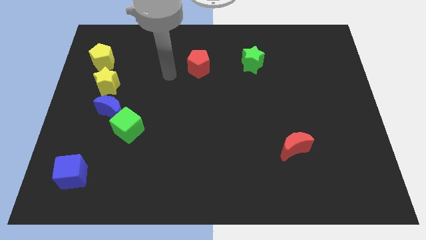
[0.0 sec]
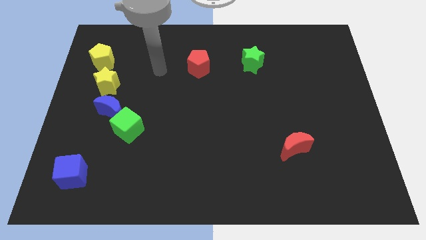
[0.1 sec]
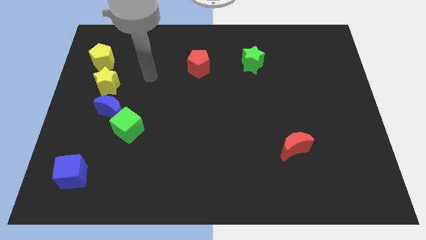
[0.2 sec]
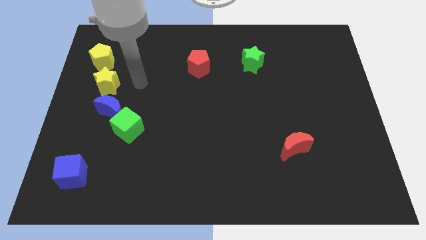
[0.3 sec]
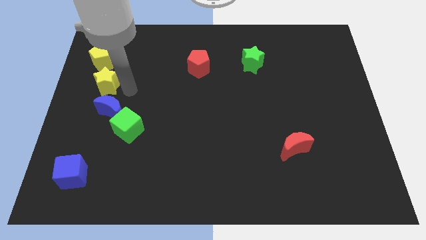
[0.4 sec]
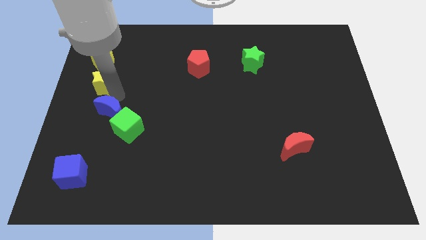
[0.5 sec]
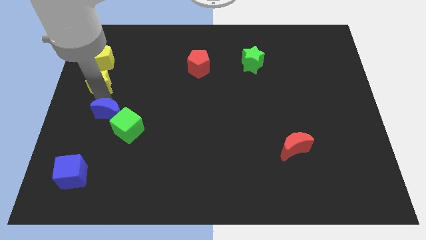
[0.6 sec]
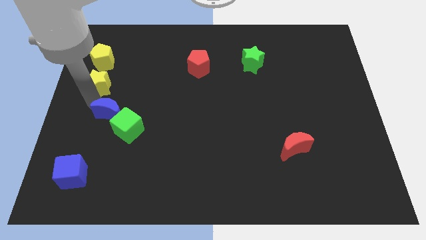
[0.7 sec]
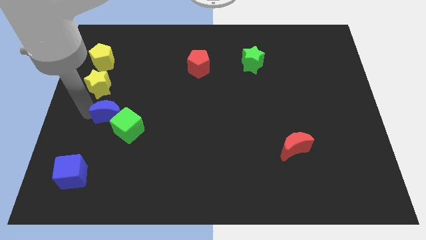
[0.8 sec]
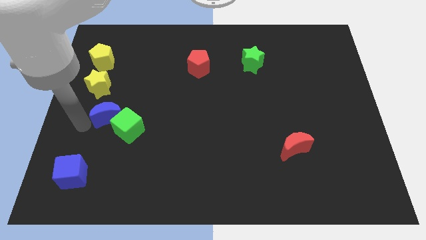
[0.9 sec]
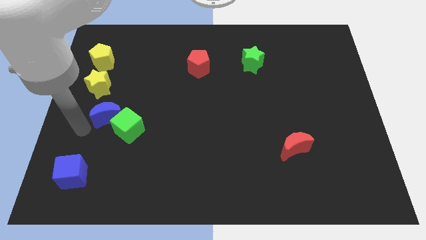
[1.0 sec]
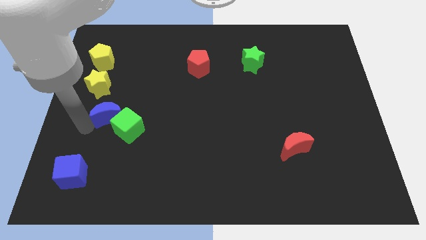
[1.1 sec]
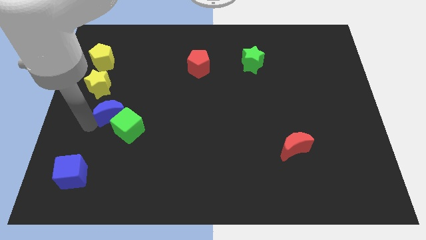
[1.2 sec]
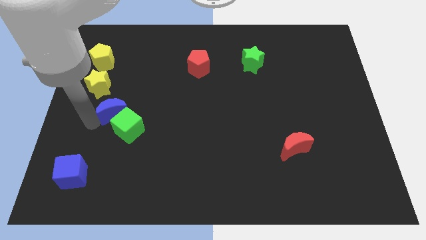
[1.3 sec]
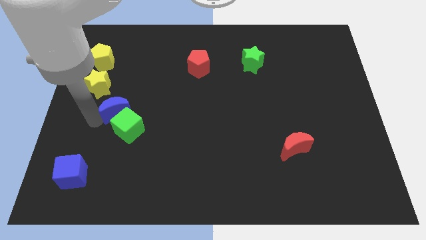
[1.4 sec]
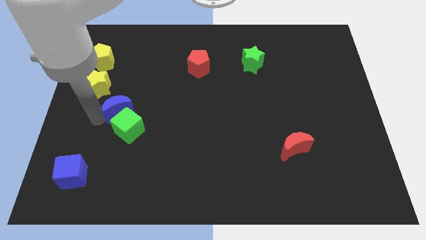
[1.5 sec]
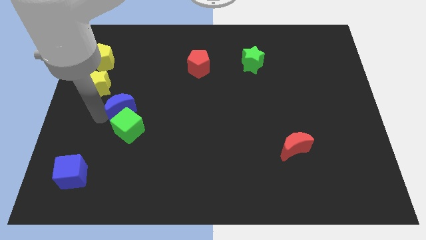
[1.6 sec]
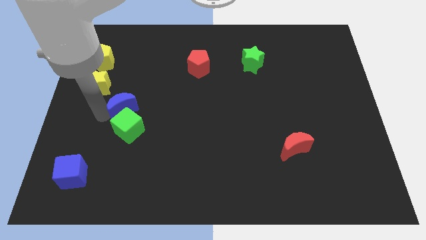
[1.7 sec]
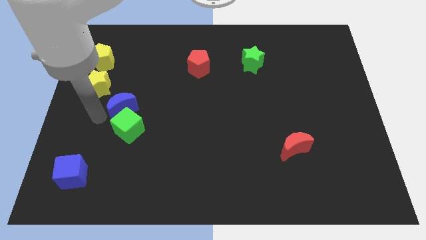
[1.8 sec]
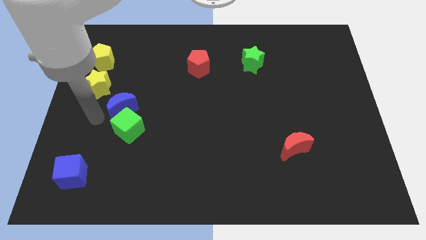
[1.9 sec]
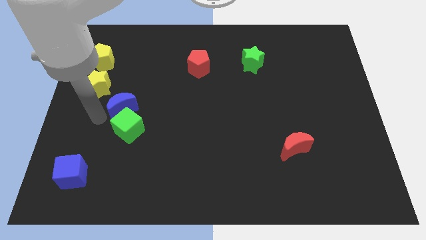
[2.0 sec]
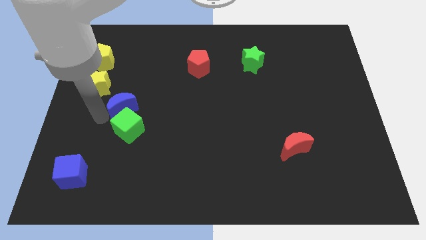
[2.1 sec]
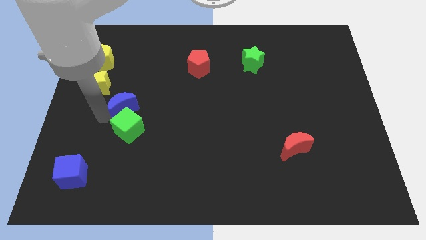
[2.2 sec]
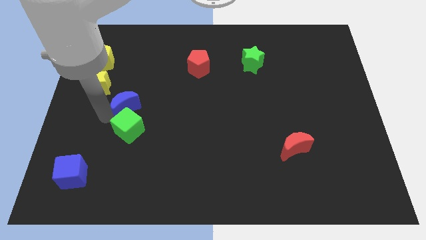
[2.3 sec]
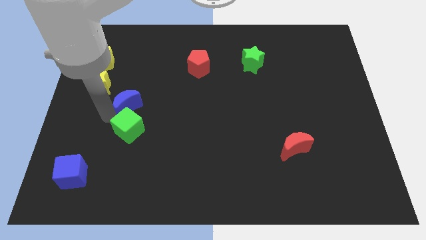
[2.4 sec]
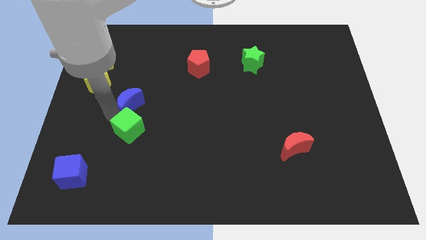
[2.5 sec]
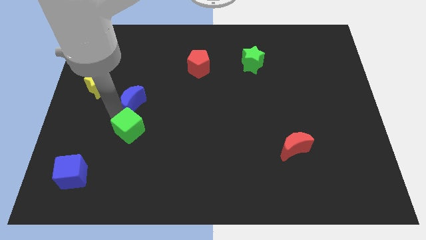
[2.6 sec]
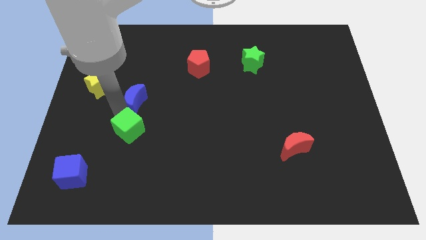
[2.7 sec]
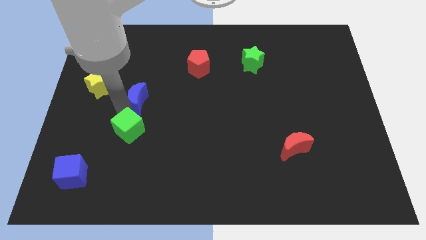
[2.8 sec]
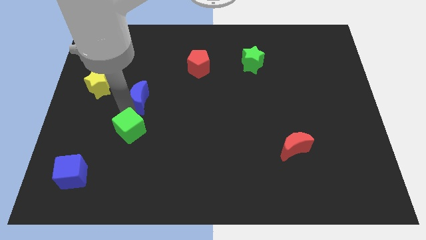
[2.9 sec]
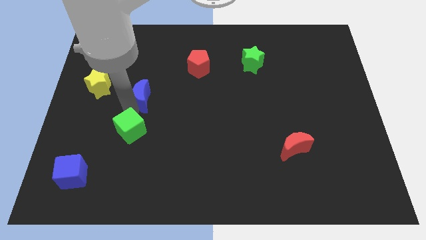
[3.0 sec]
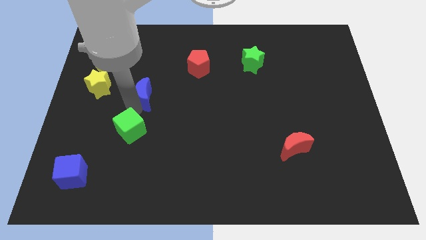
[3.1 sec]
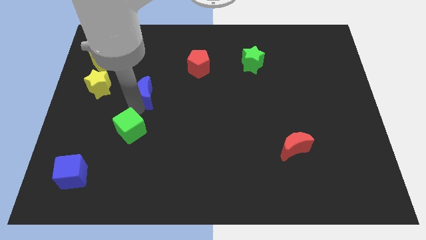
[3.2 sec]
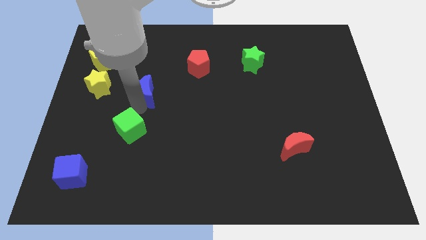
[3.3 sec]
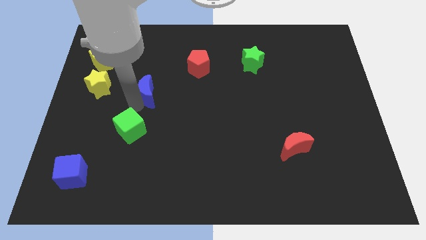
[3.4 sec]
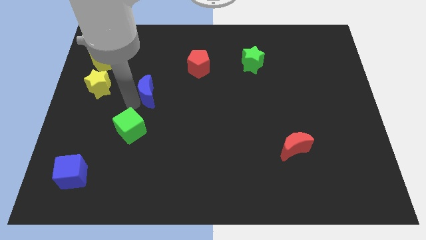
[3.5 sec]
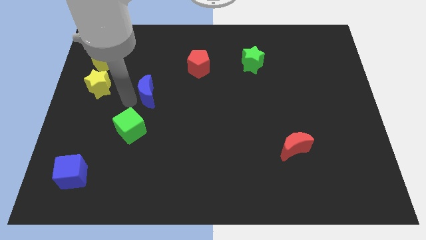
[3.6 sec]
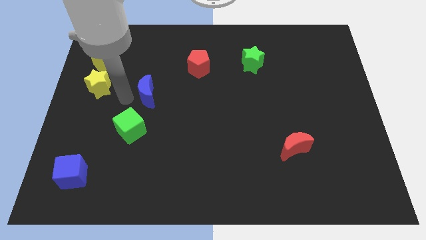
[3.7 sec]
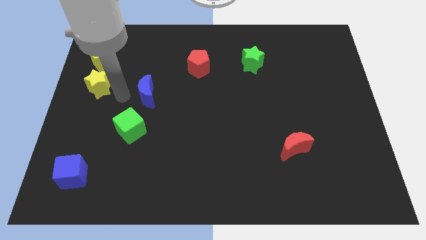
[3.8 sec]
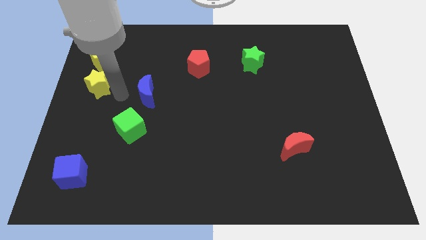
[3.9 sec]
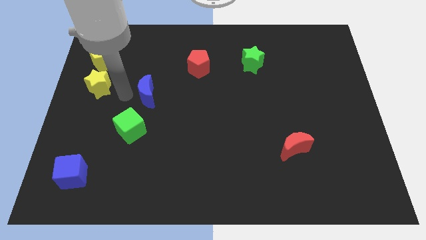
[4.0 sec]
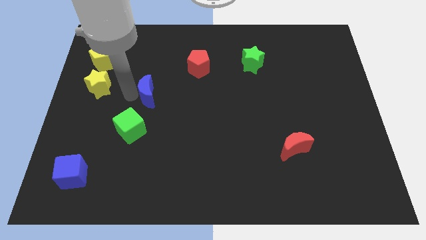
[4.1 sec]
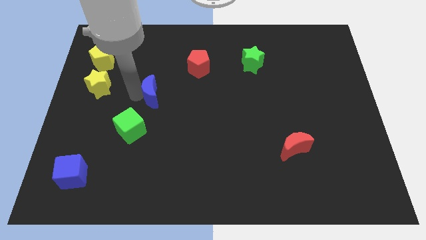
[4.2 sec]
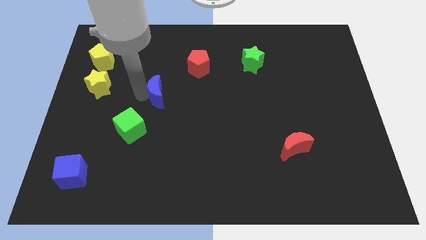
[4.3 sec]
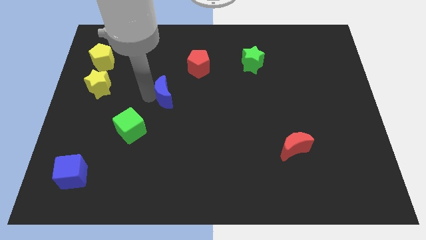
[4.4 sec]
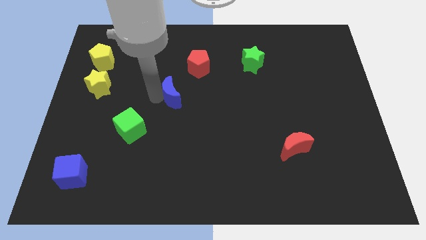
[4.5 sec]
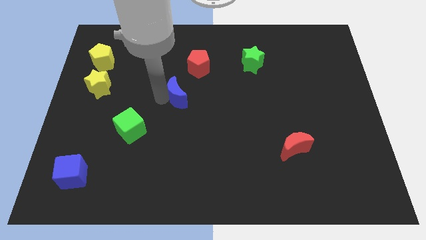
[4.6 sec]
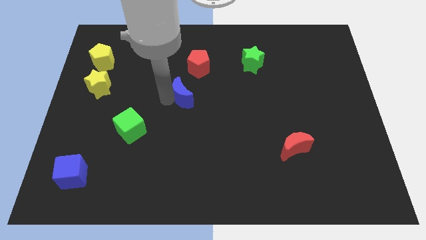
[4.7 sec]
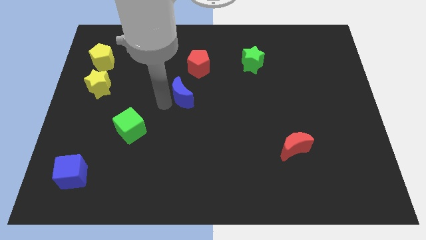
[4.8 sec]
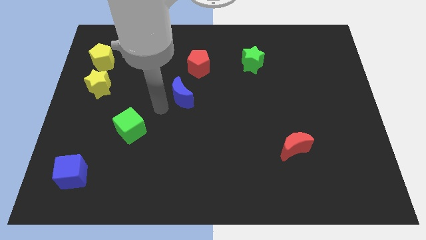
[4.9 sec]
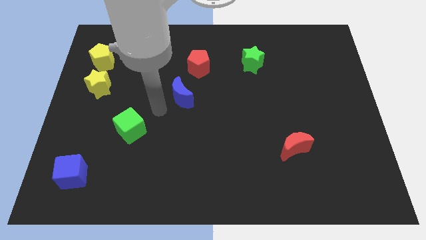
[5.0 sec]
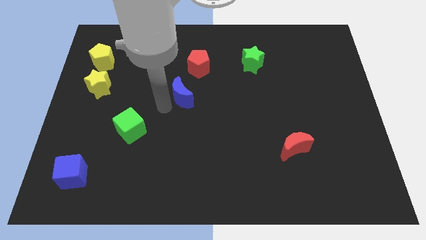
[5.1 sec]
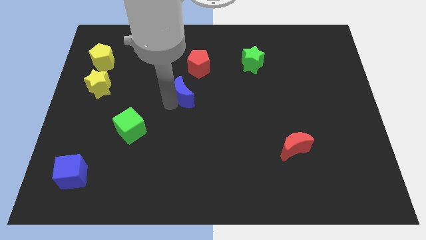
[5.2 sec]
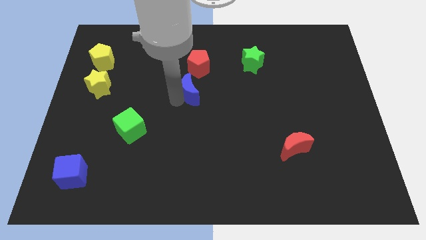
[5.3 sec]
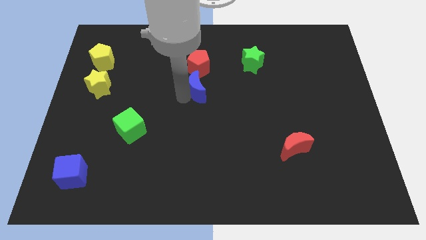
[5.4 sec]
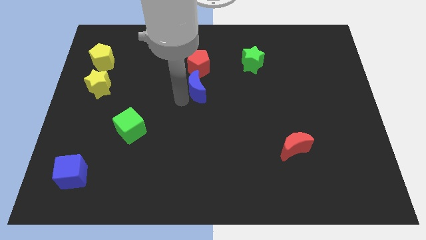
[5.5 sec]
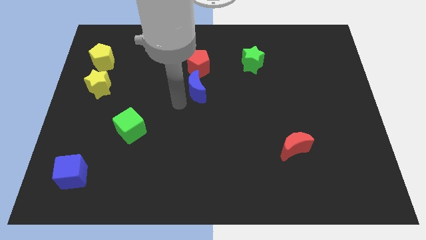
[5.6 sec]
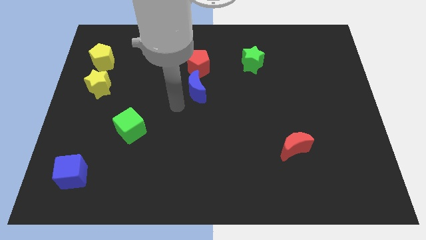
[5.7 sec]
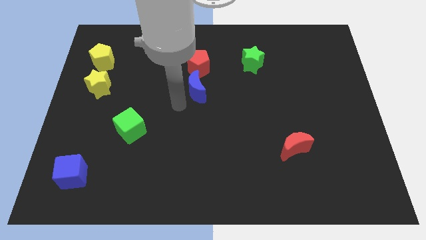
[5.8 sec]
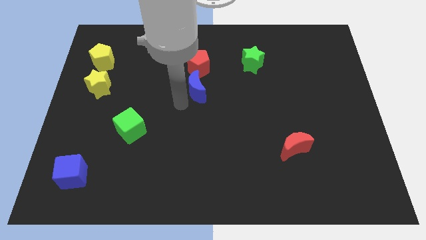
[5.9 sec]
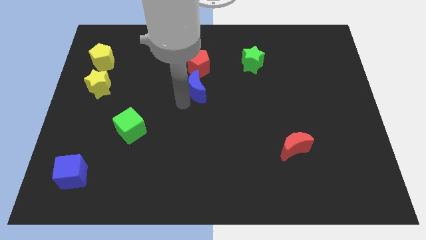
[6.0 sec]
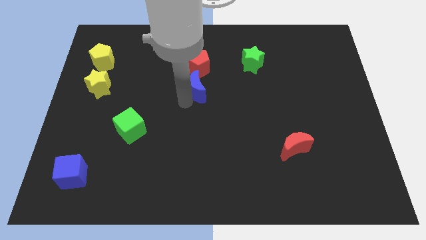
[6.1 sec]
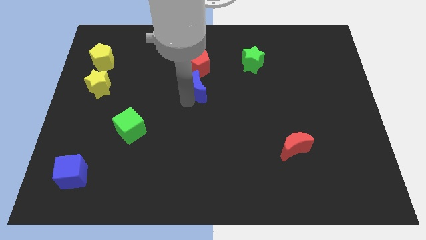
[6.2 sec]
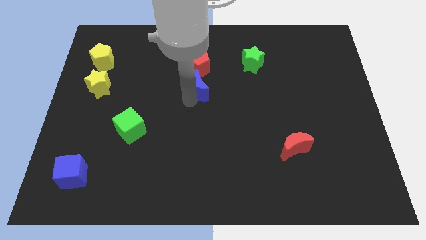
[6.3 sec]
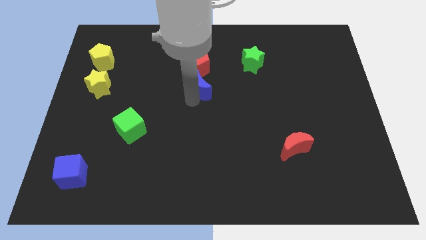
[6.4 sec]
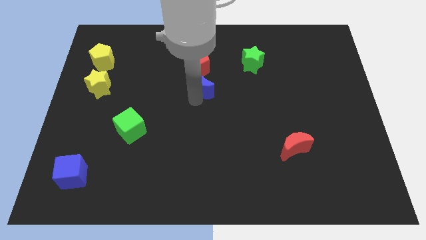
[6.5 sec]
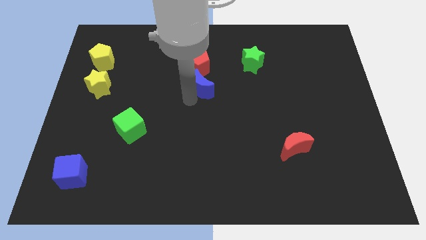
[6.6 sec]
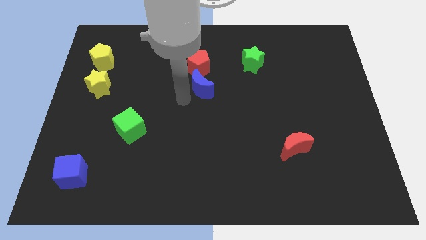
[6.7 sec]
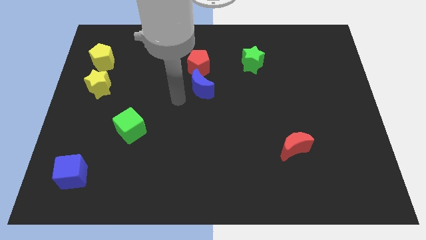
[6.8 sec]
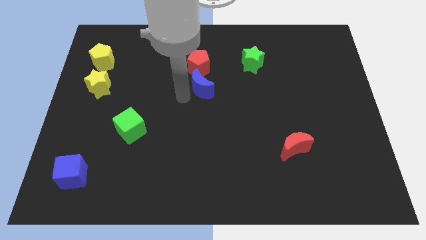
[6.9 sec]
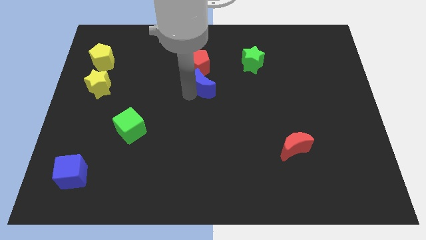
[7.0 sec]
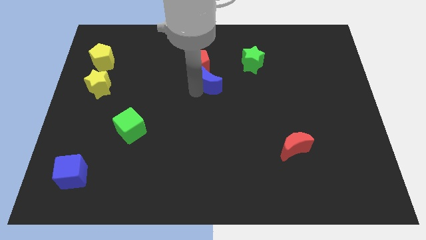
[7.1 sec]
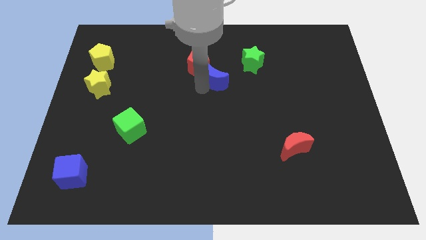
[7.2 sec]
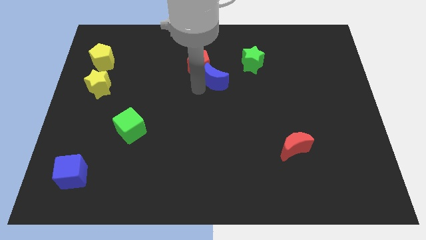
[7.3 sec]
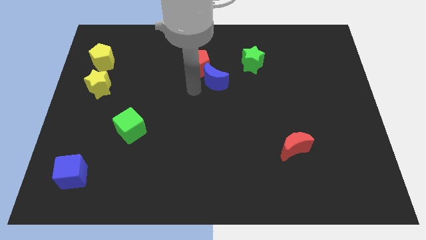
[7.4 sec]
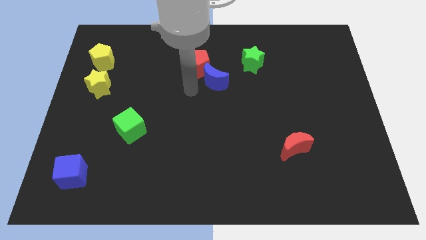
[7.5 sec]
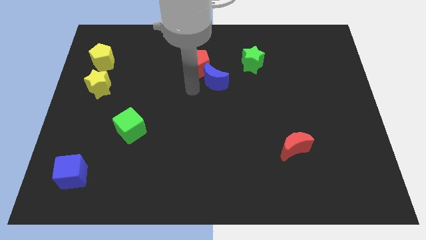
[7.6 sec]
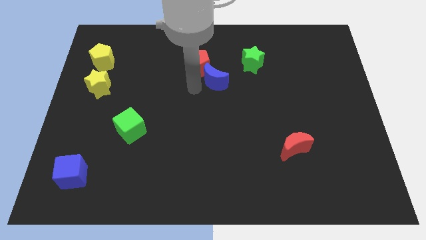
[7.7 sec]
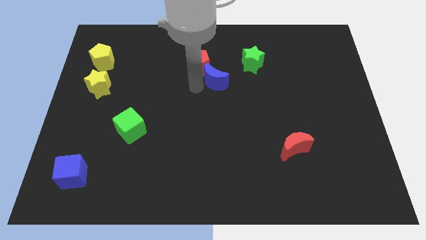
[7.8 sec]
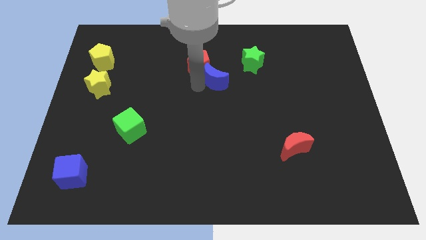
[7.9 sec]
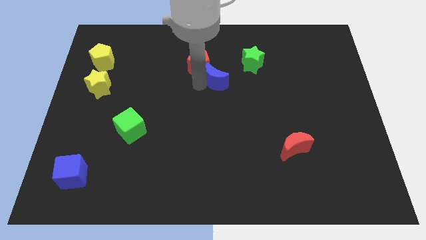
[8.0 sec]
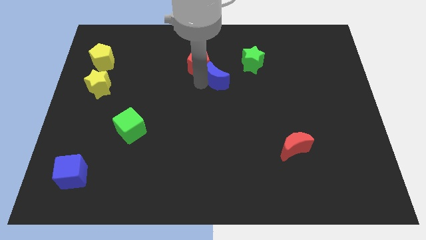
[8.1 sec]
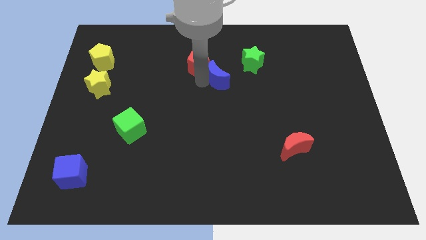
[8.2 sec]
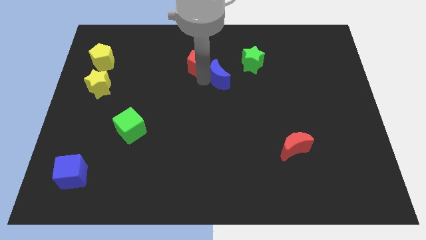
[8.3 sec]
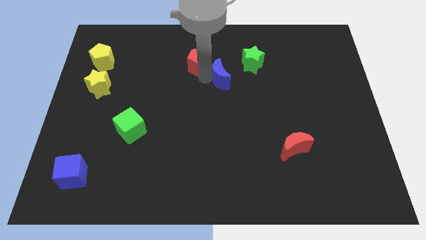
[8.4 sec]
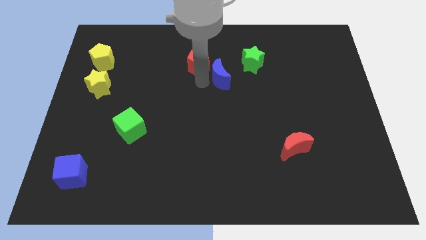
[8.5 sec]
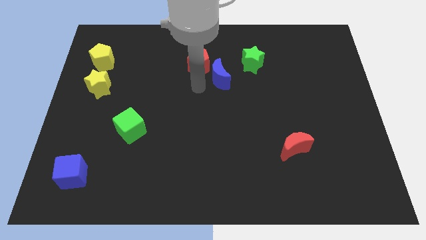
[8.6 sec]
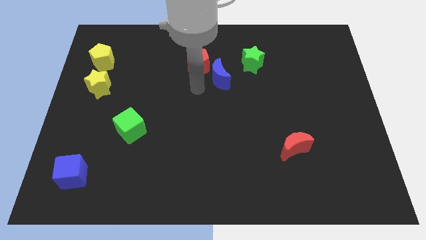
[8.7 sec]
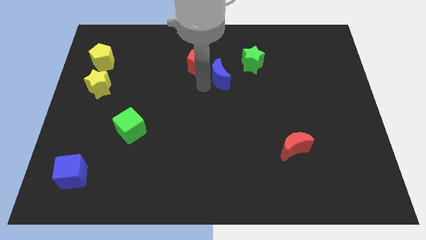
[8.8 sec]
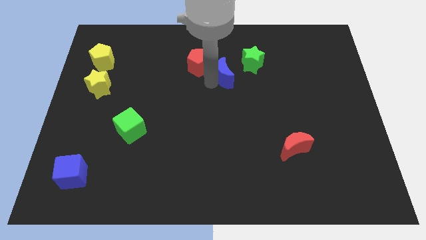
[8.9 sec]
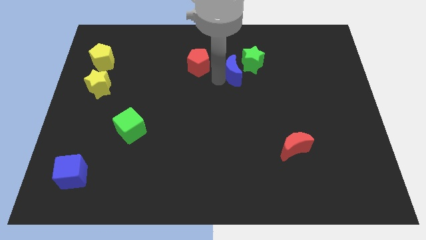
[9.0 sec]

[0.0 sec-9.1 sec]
slide the blue moon towards the green star
